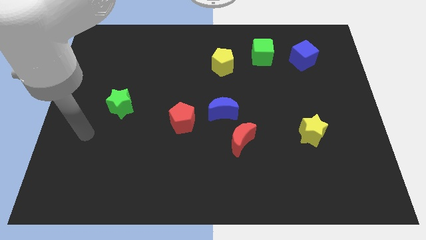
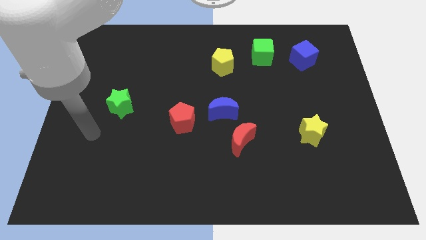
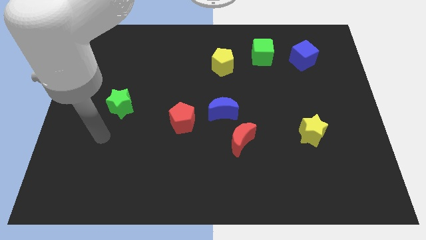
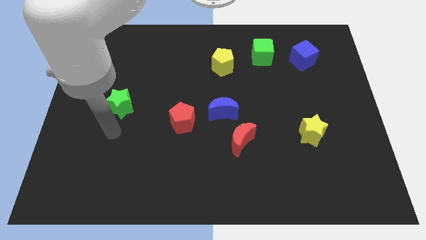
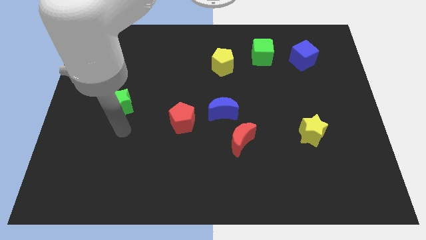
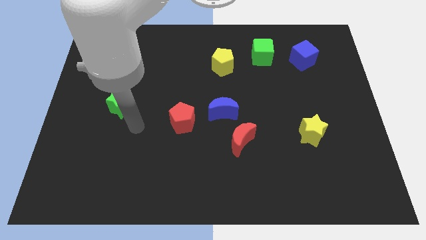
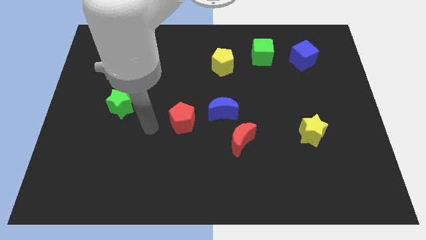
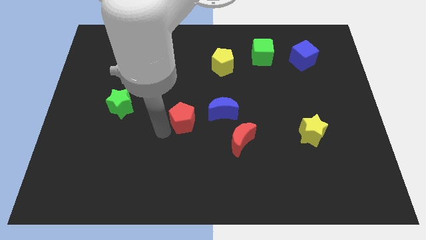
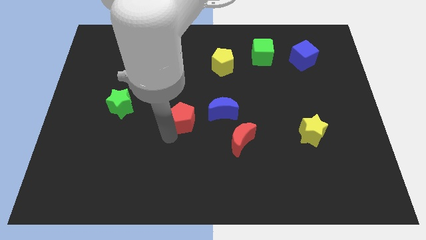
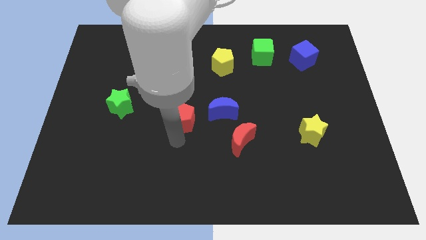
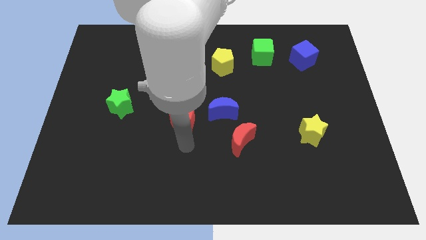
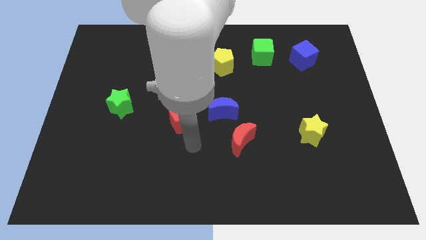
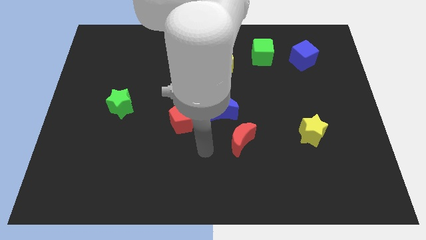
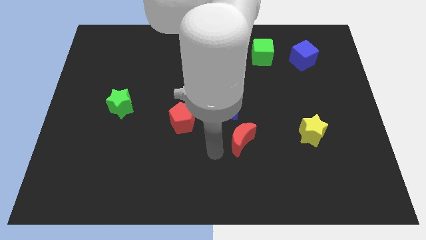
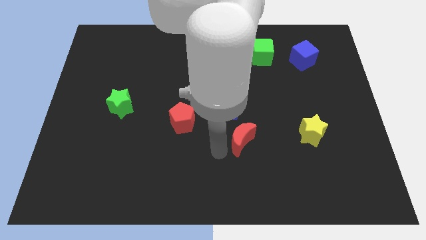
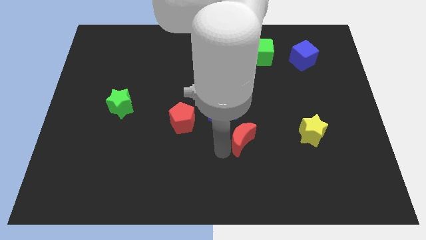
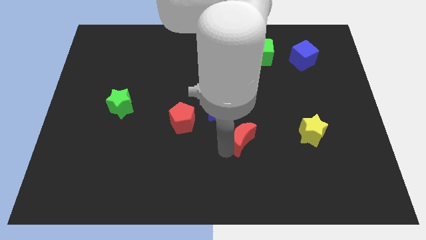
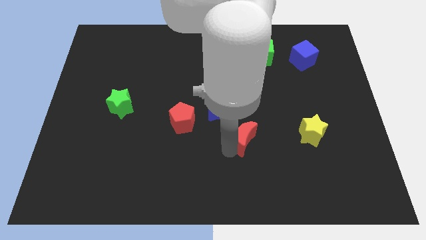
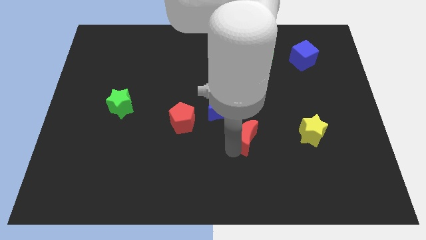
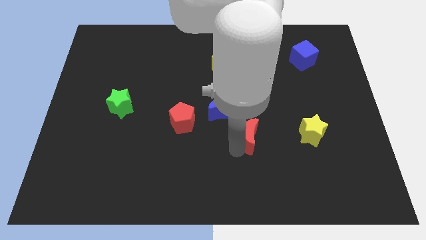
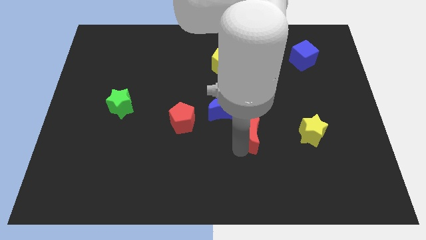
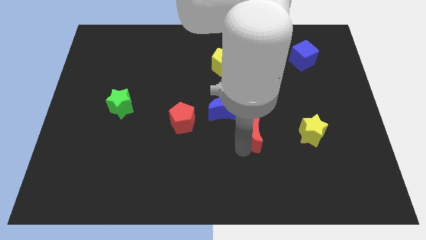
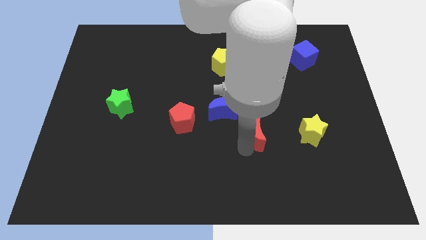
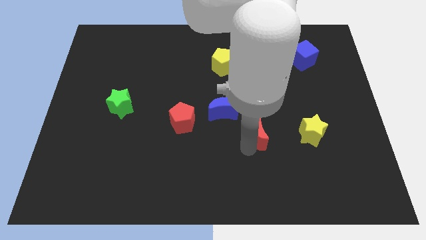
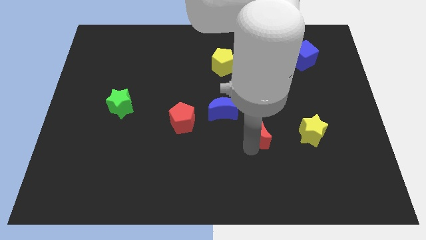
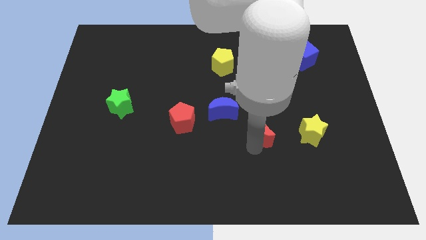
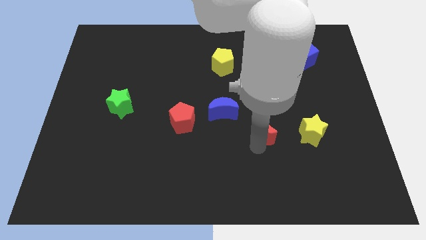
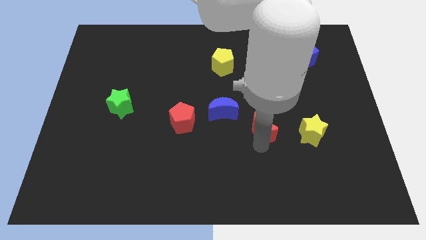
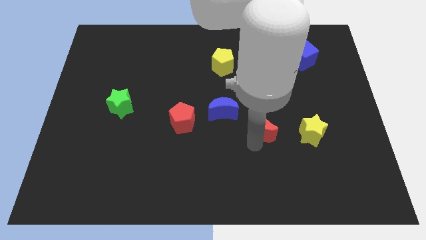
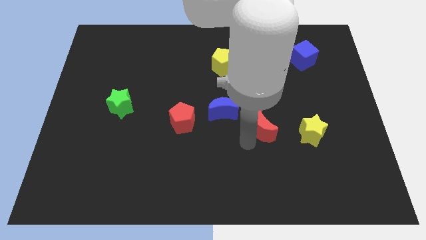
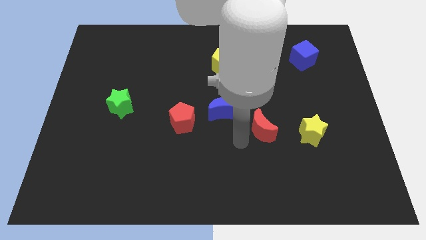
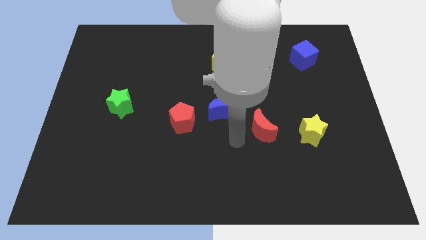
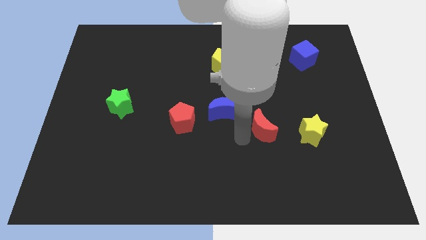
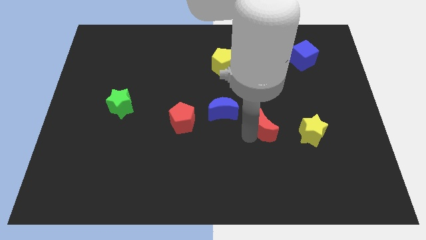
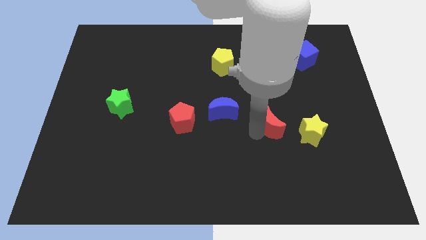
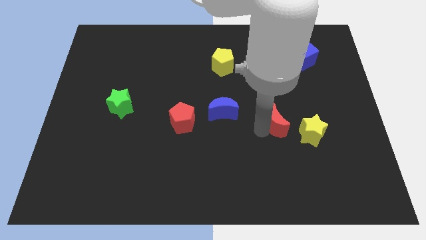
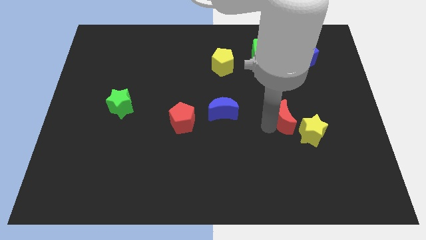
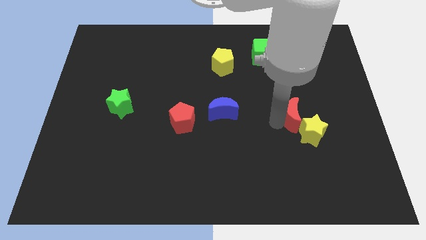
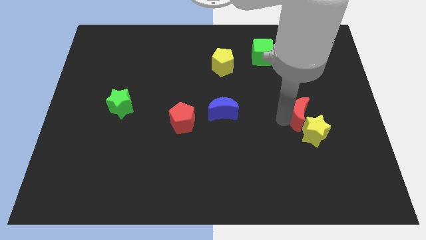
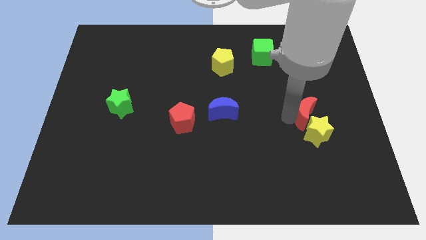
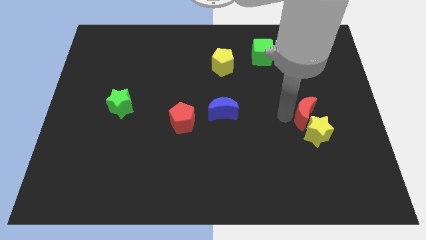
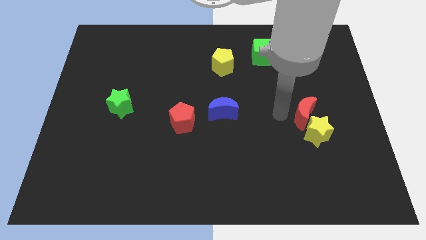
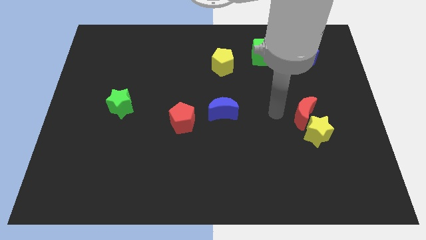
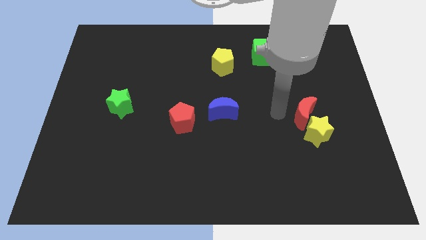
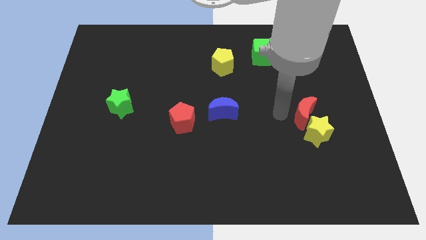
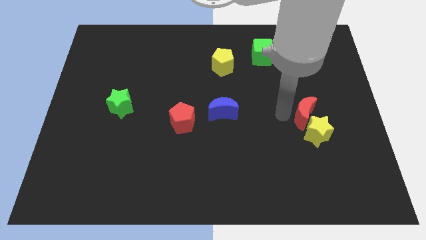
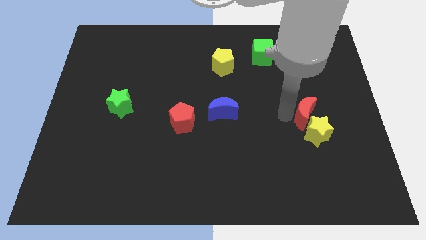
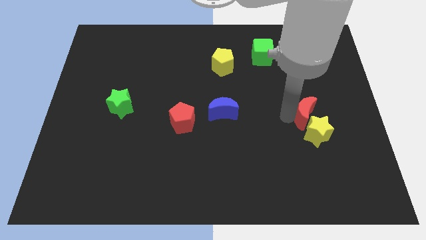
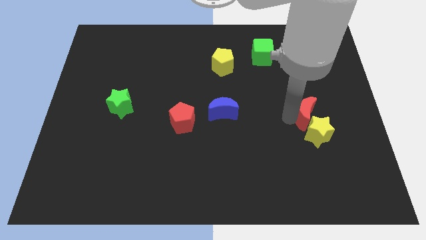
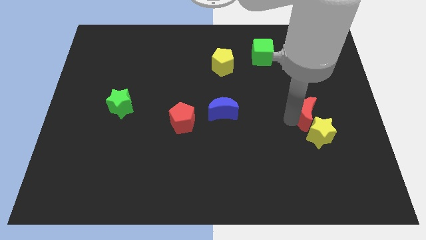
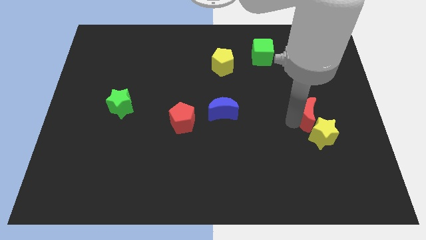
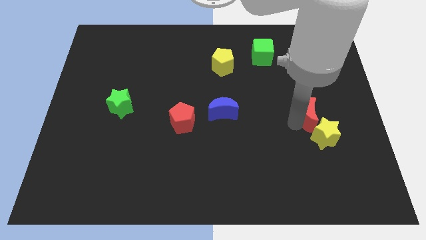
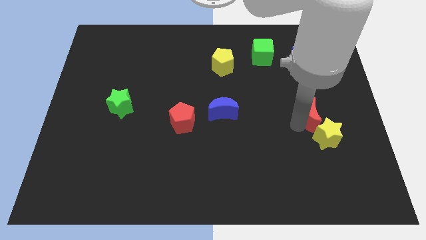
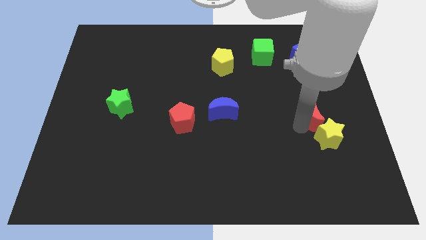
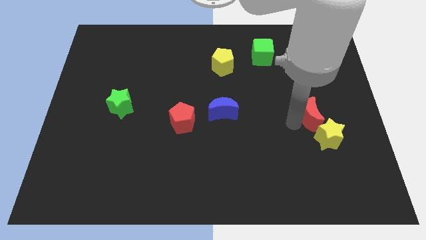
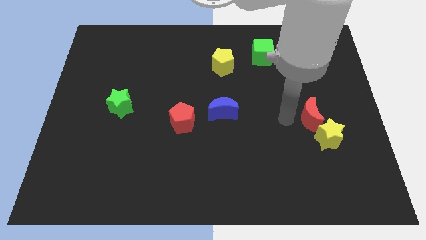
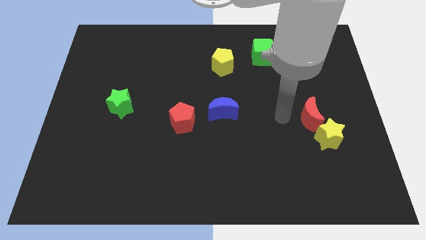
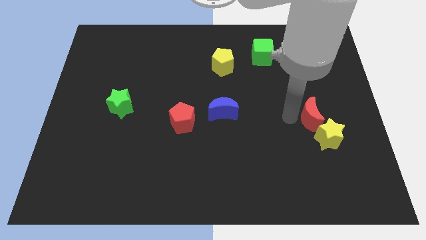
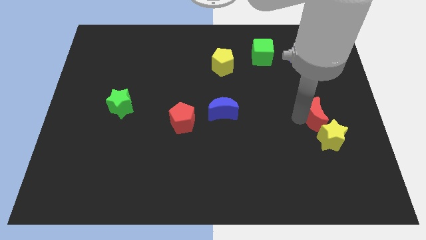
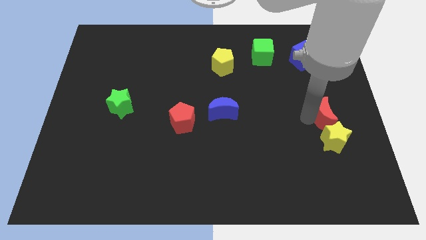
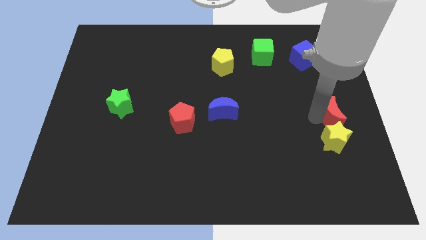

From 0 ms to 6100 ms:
push the red moon diagonally up and to the right of the yellow star

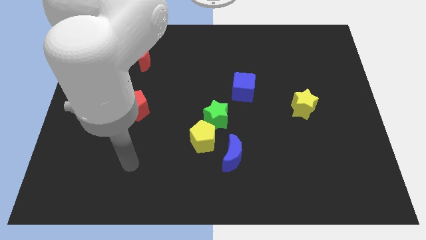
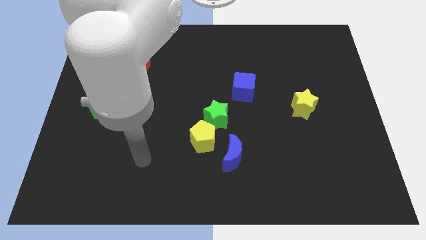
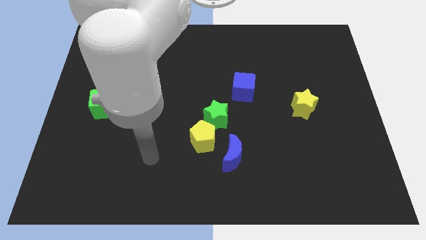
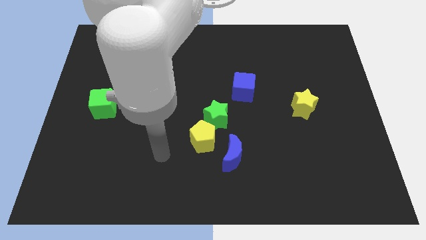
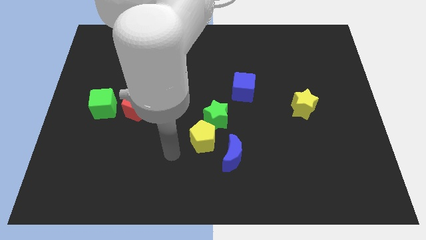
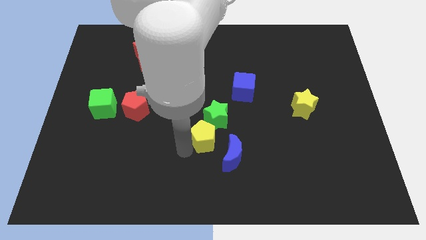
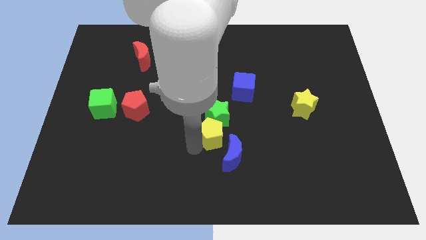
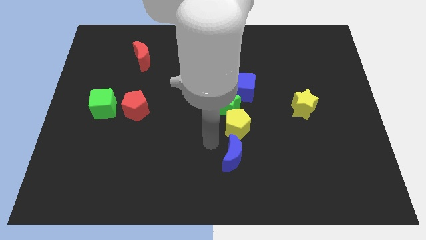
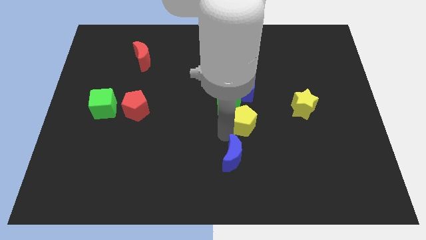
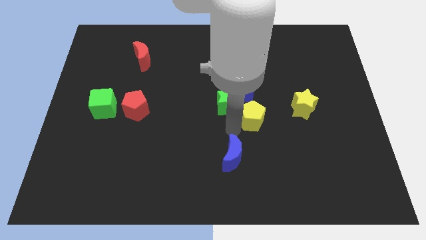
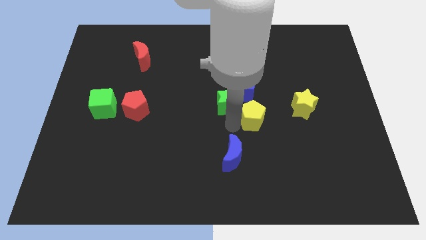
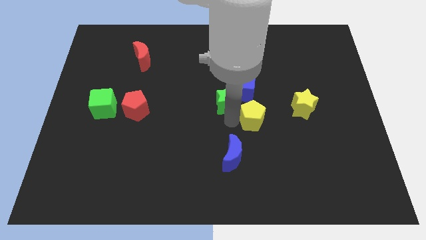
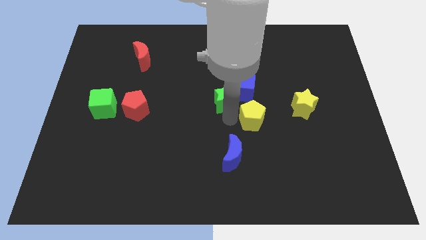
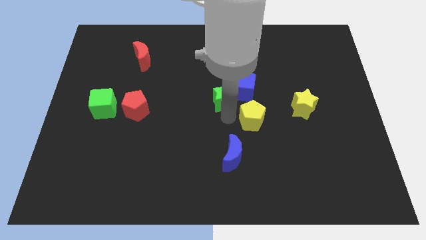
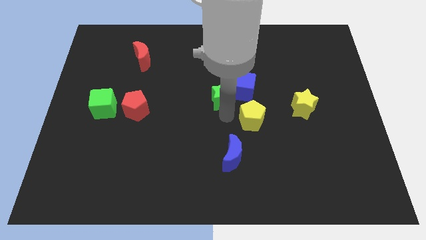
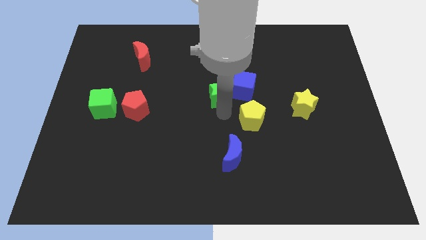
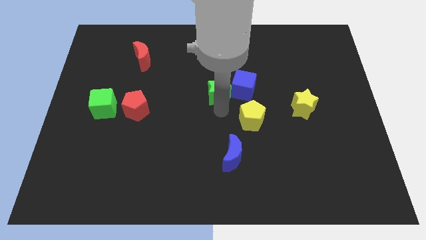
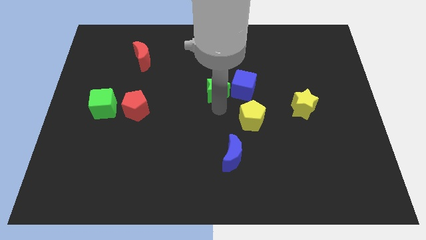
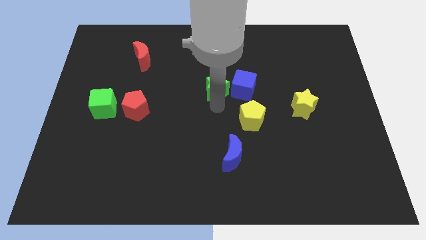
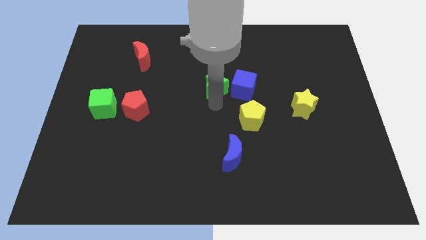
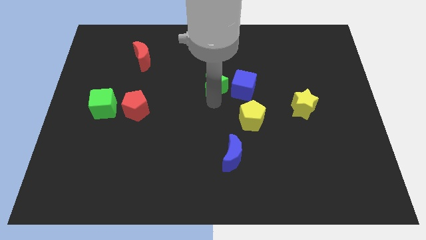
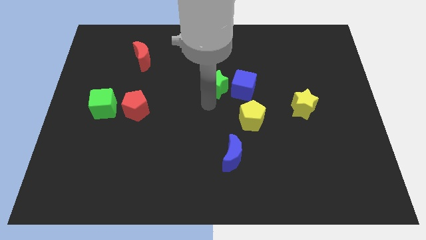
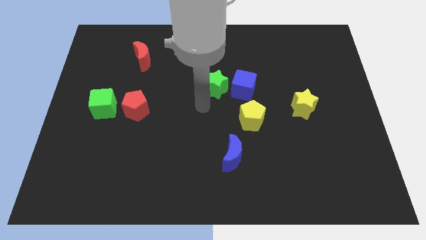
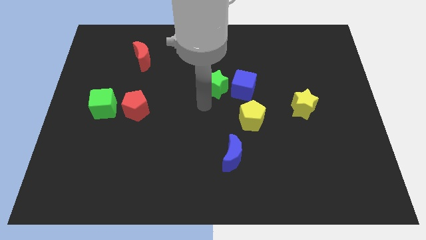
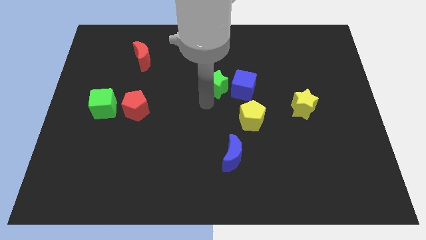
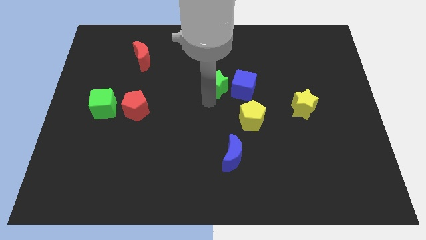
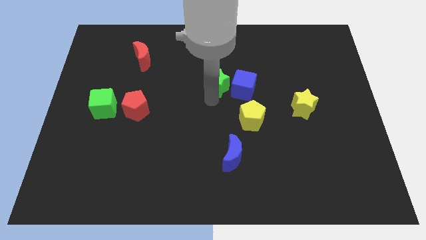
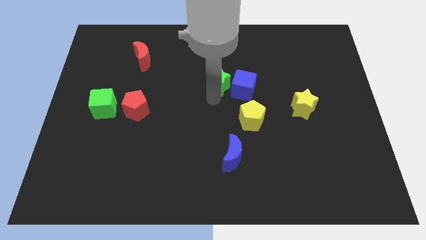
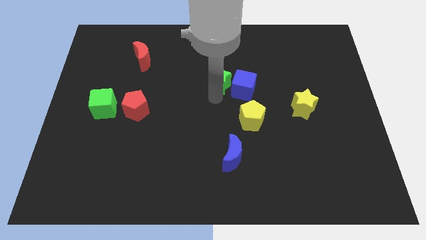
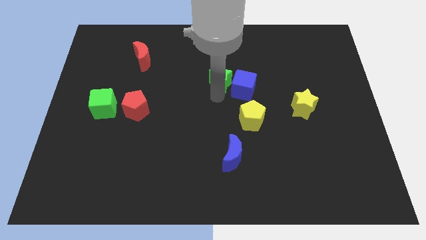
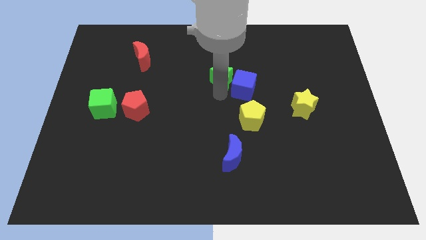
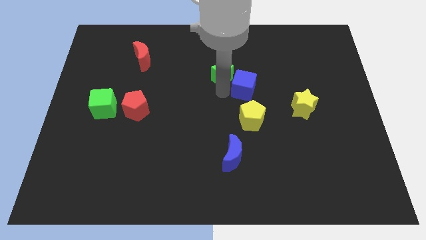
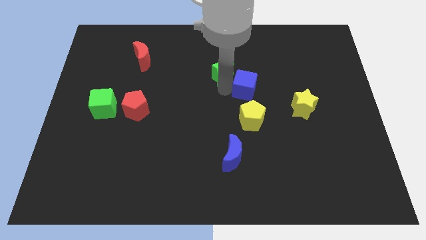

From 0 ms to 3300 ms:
slide the green star above the blue cube
